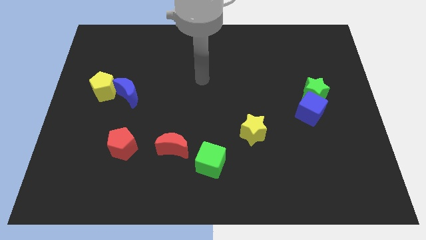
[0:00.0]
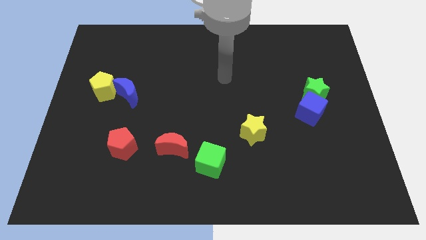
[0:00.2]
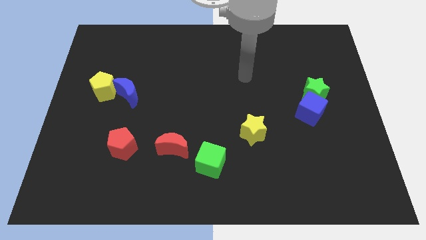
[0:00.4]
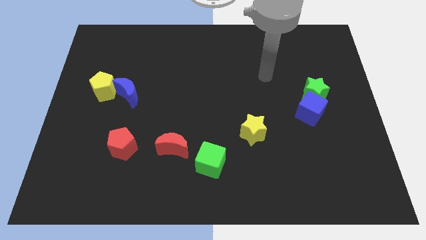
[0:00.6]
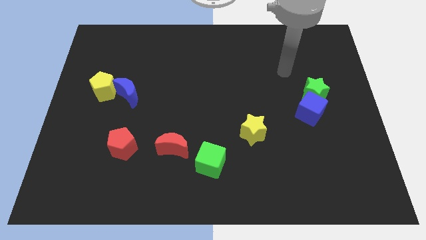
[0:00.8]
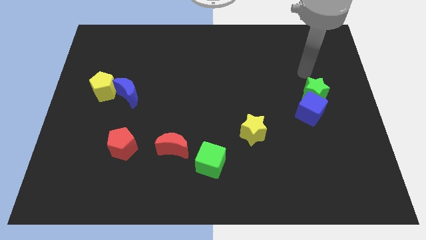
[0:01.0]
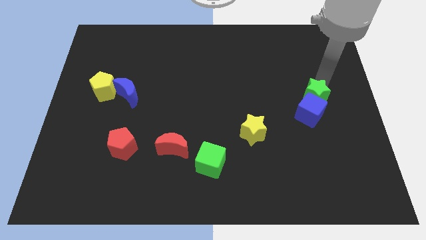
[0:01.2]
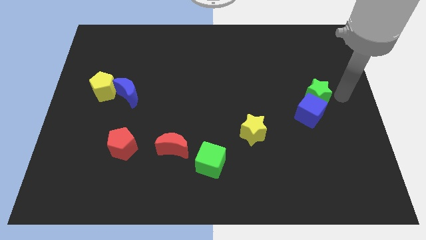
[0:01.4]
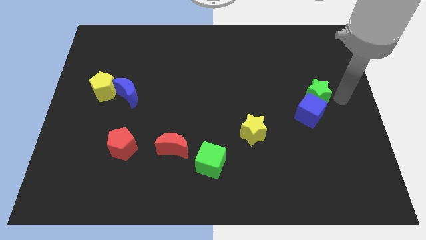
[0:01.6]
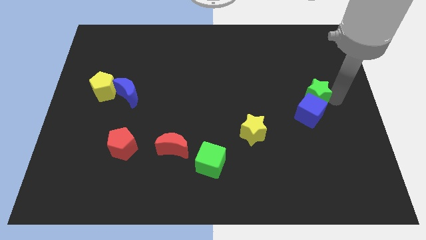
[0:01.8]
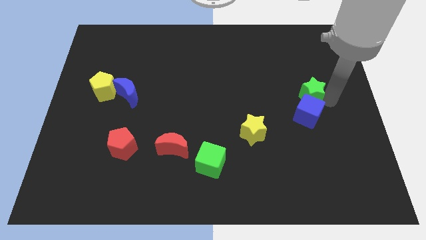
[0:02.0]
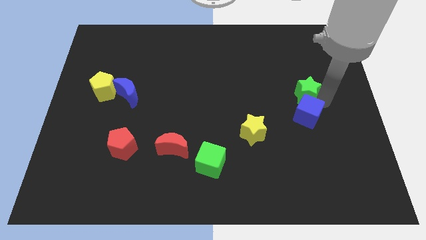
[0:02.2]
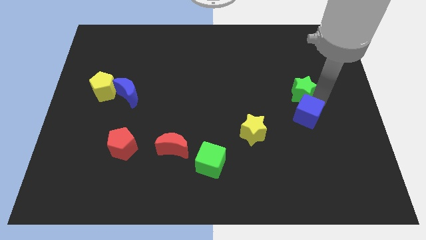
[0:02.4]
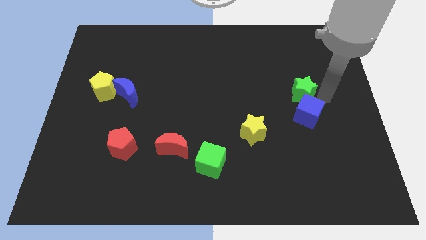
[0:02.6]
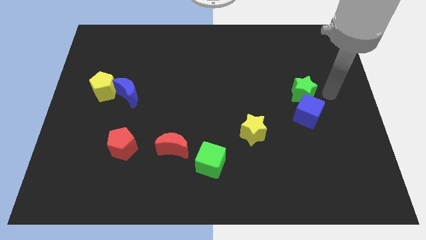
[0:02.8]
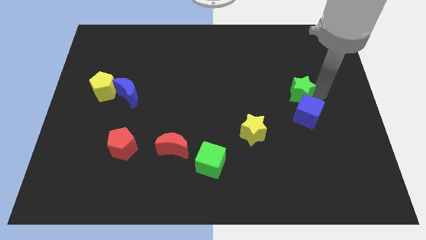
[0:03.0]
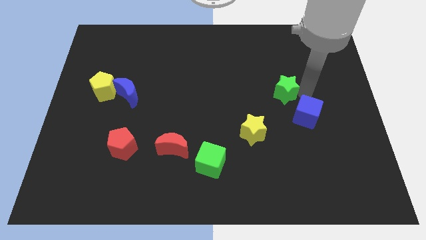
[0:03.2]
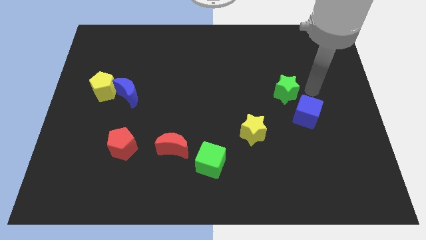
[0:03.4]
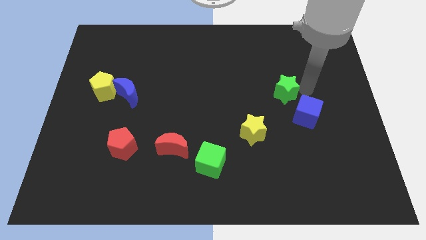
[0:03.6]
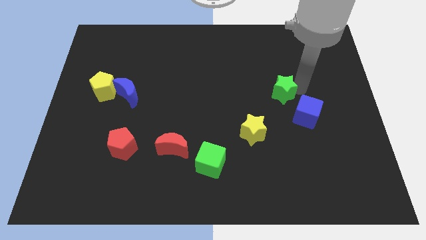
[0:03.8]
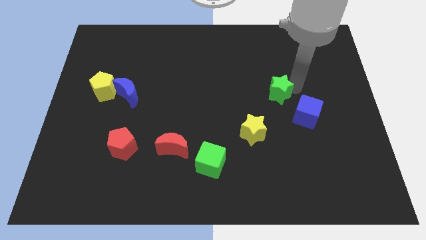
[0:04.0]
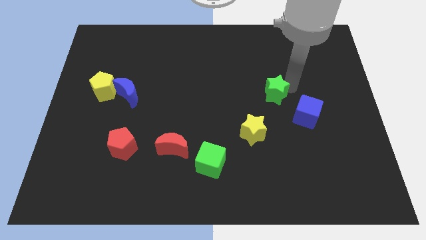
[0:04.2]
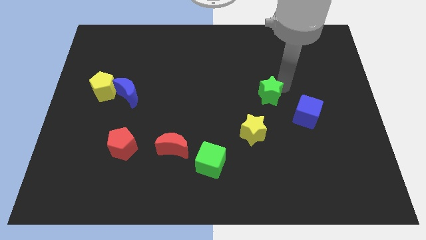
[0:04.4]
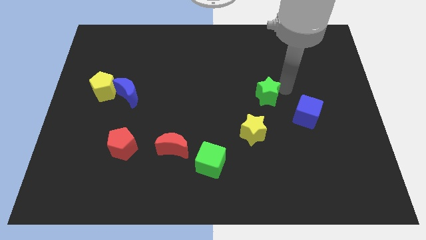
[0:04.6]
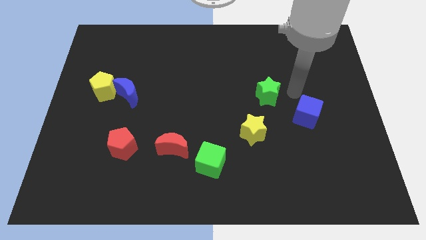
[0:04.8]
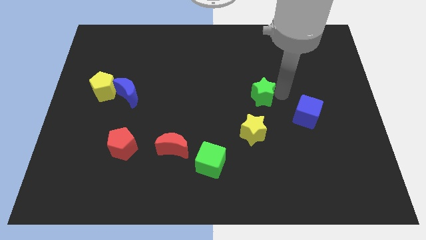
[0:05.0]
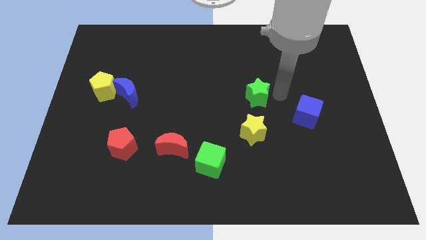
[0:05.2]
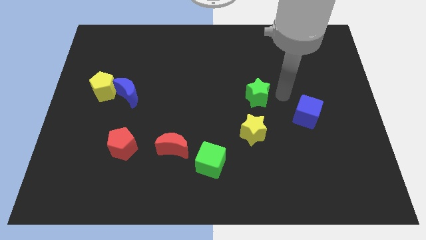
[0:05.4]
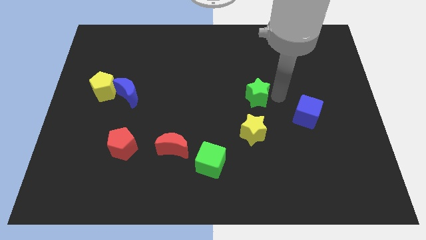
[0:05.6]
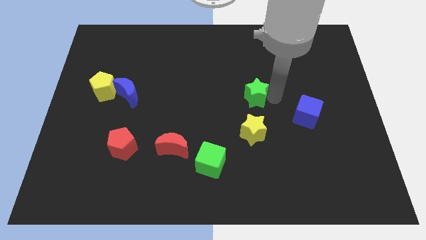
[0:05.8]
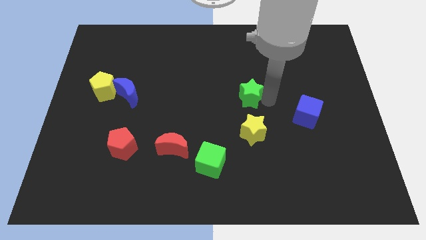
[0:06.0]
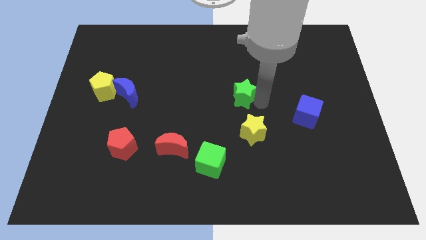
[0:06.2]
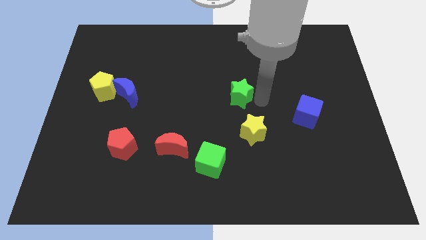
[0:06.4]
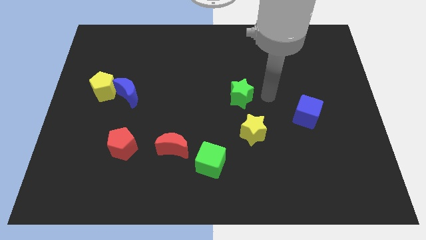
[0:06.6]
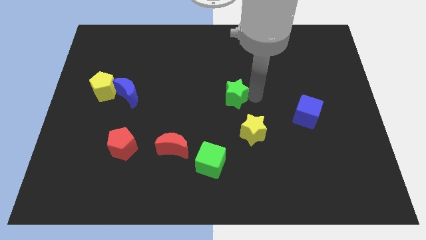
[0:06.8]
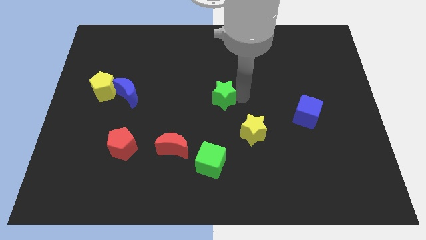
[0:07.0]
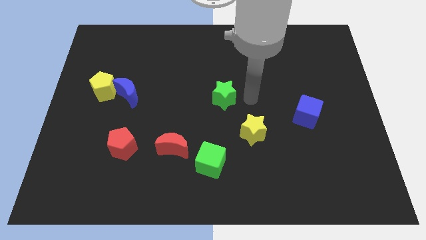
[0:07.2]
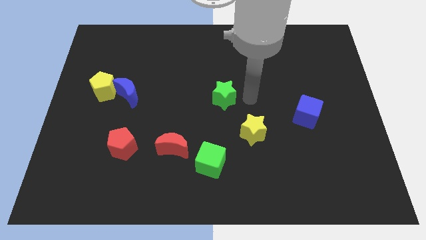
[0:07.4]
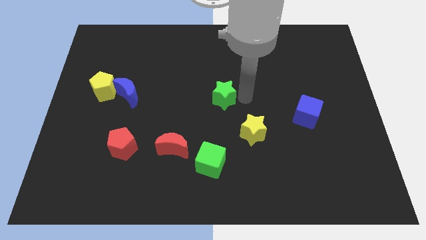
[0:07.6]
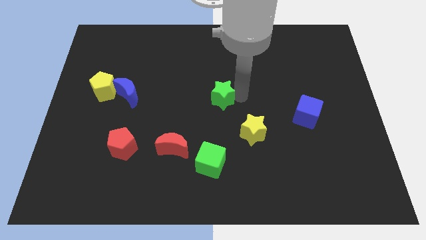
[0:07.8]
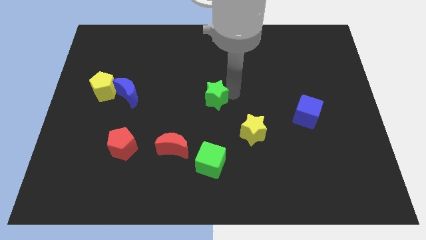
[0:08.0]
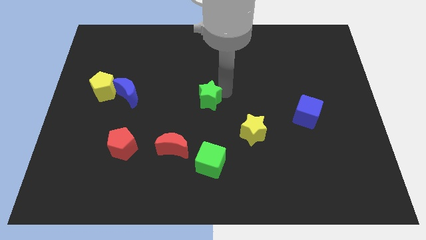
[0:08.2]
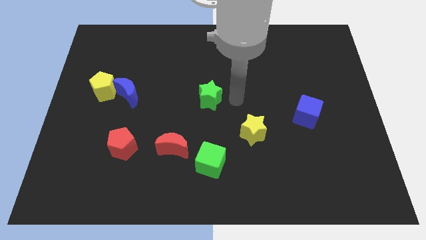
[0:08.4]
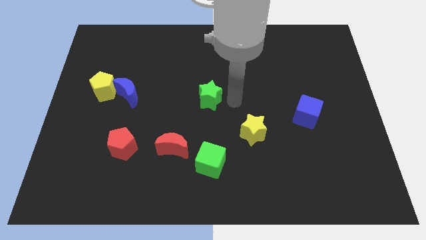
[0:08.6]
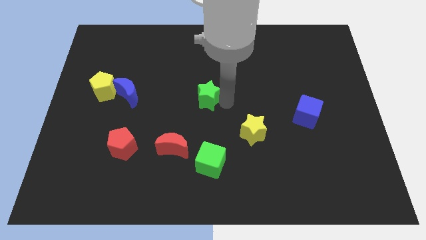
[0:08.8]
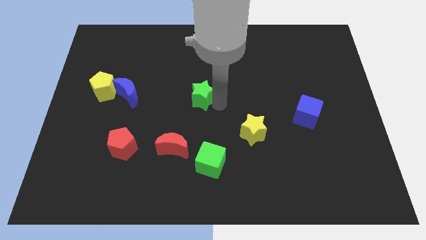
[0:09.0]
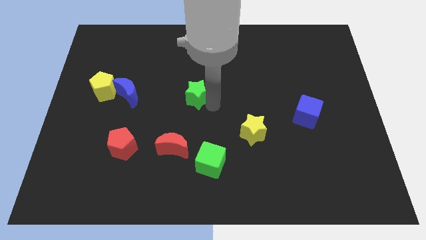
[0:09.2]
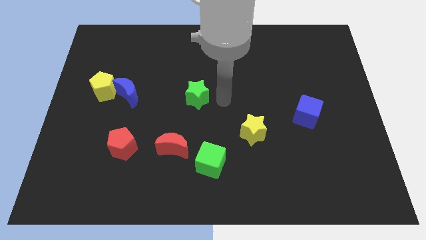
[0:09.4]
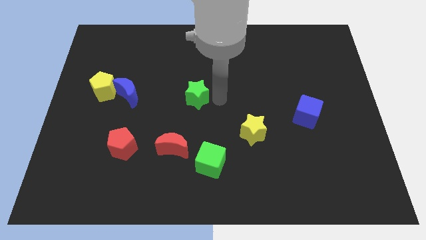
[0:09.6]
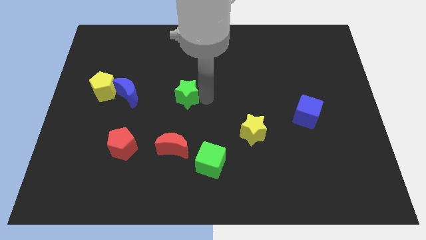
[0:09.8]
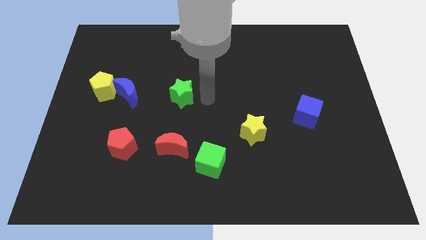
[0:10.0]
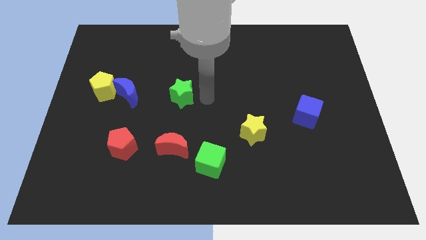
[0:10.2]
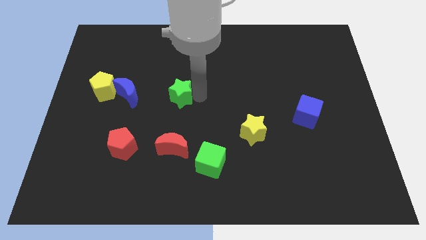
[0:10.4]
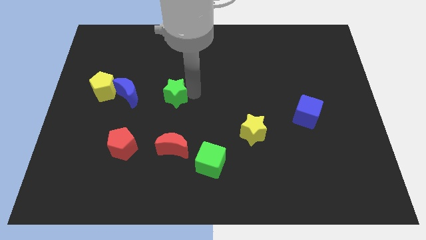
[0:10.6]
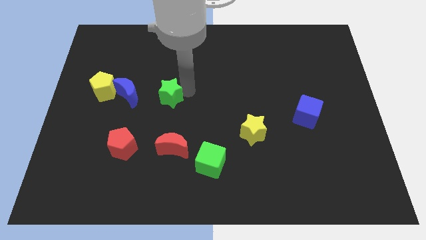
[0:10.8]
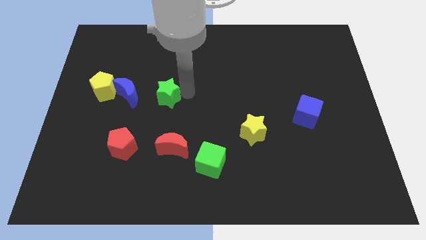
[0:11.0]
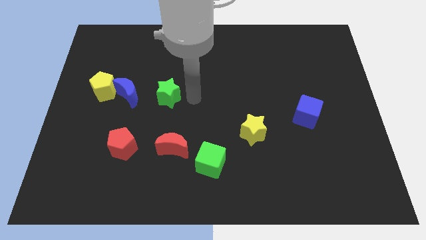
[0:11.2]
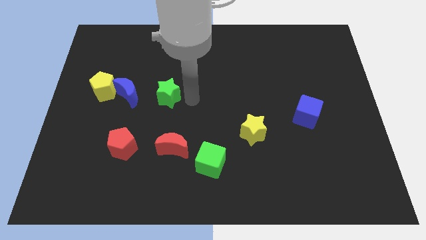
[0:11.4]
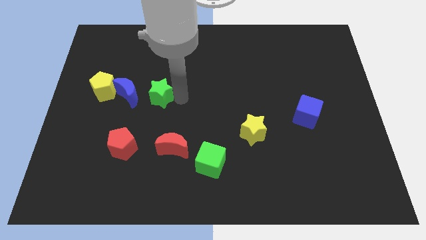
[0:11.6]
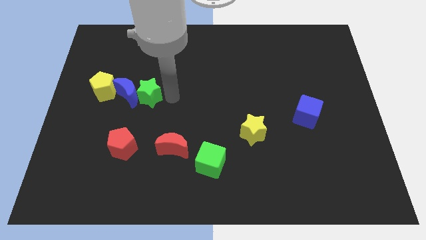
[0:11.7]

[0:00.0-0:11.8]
push the green star towards the blue moon

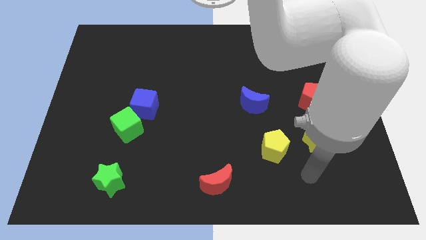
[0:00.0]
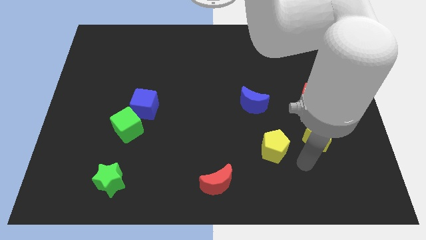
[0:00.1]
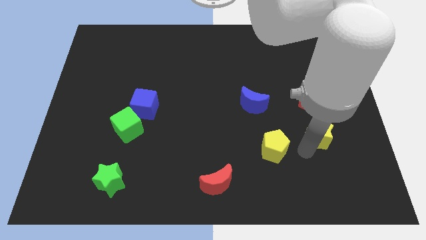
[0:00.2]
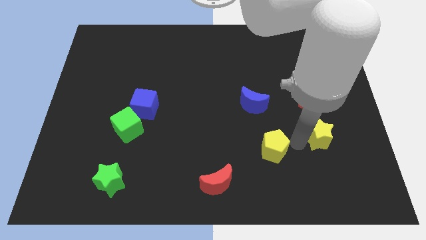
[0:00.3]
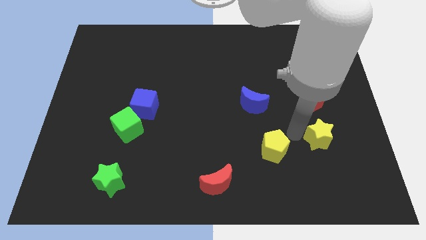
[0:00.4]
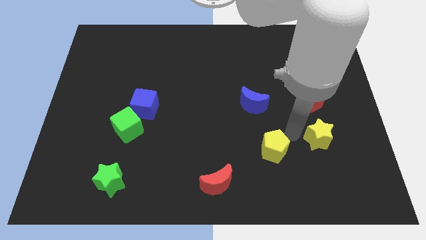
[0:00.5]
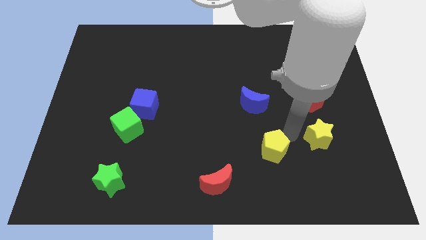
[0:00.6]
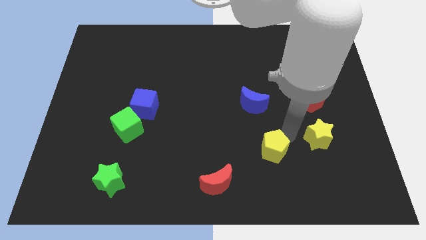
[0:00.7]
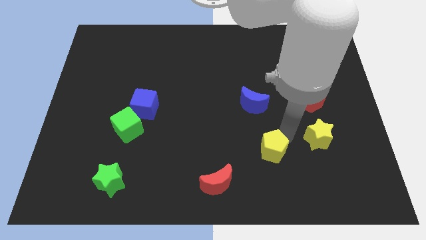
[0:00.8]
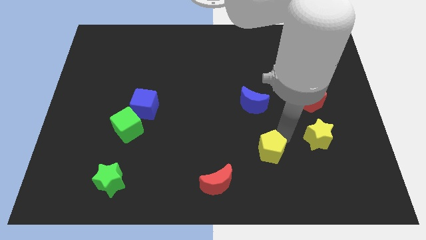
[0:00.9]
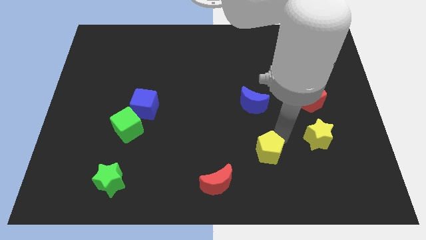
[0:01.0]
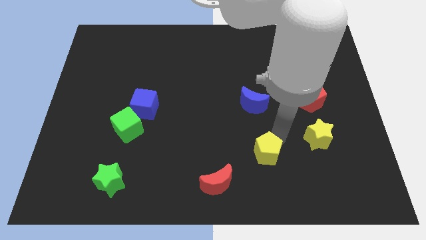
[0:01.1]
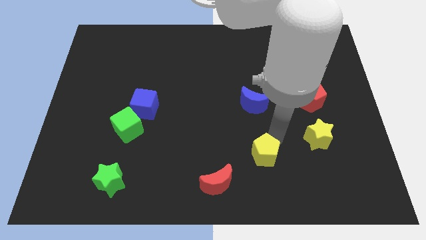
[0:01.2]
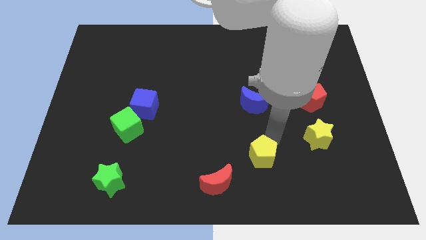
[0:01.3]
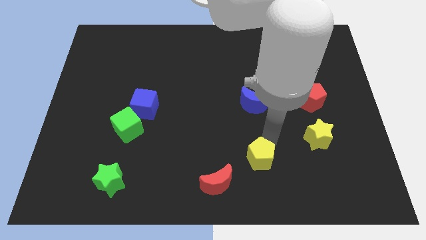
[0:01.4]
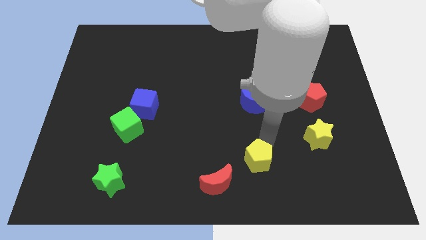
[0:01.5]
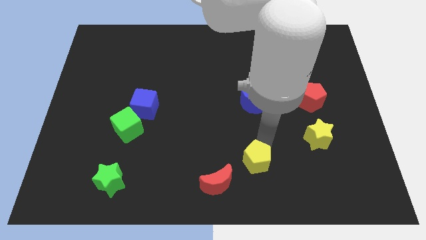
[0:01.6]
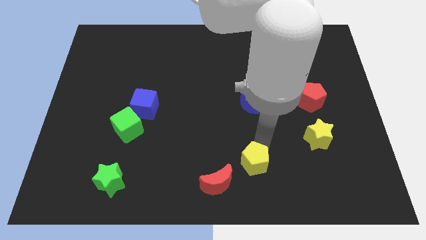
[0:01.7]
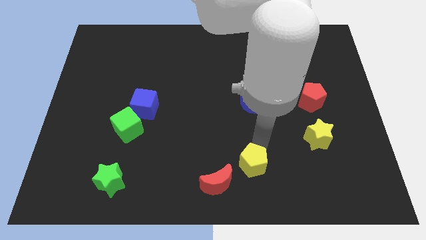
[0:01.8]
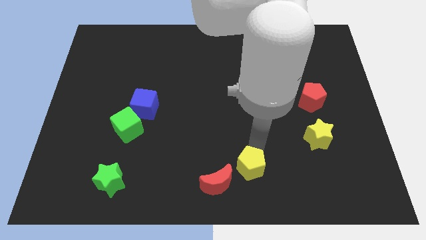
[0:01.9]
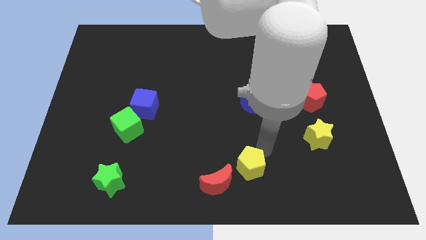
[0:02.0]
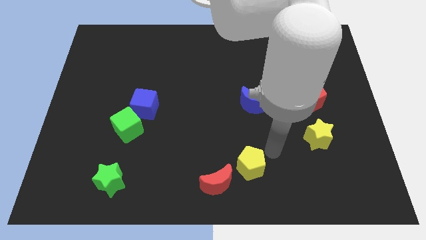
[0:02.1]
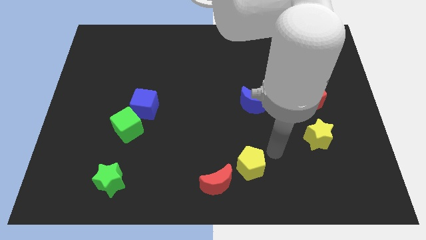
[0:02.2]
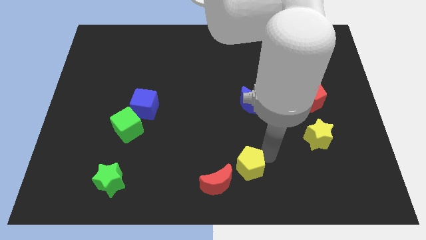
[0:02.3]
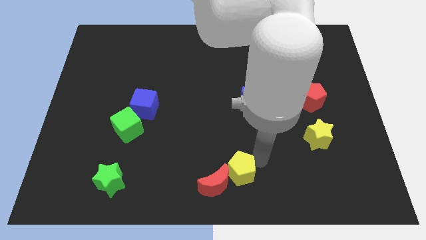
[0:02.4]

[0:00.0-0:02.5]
put the yellow pentagon to the red moon
